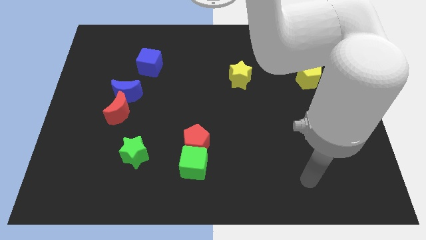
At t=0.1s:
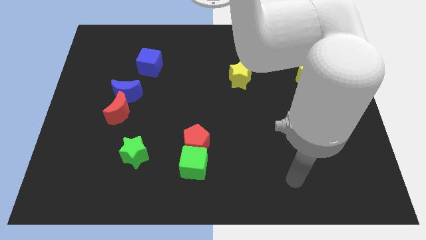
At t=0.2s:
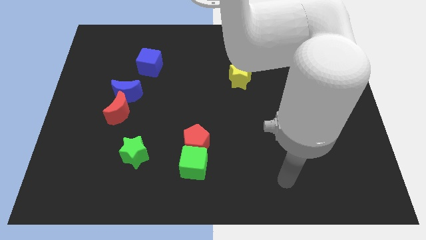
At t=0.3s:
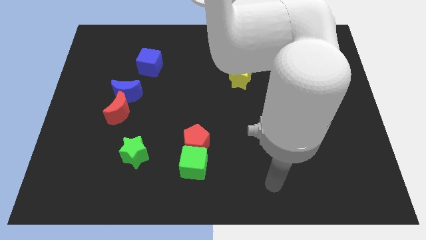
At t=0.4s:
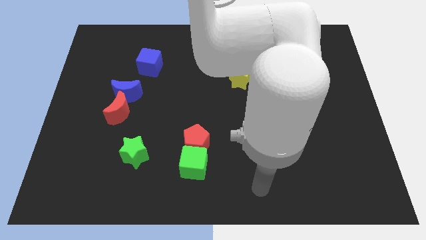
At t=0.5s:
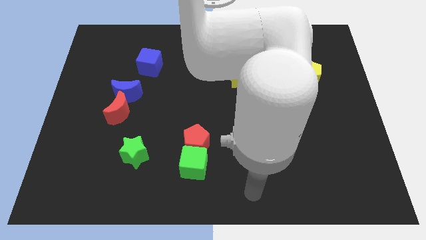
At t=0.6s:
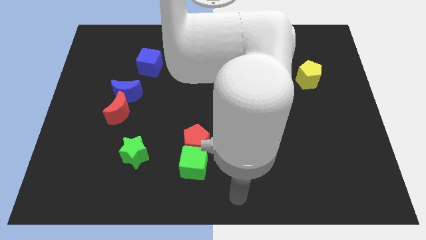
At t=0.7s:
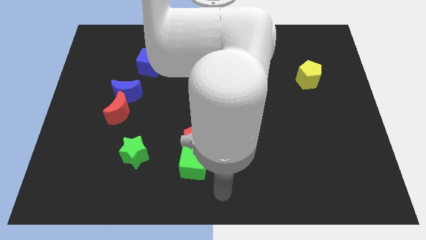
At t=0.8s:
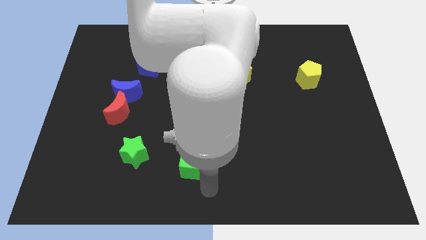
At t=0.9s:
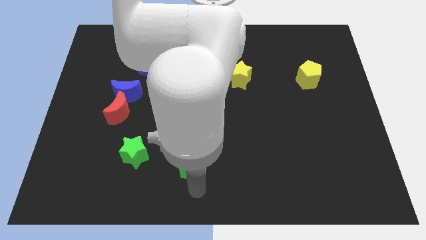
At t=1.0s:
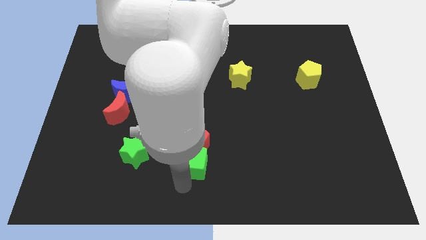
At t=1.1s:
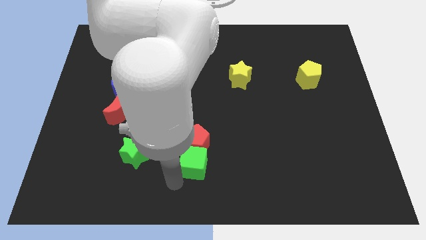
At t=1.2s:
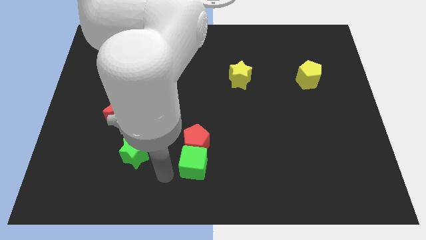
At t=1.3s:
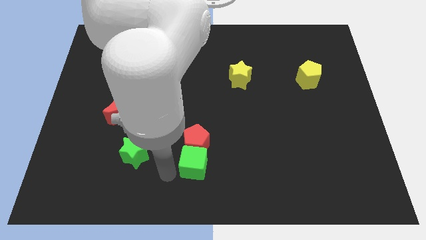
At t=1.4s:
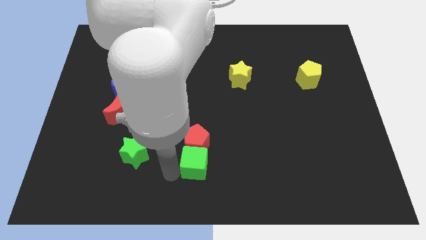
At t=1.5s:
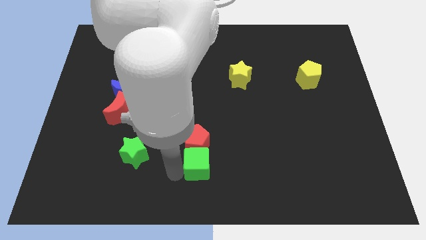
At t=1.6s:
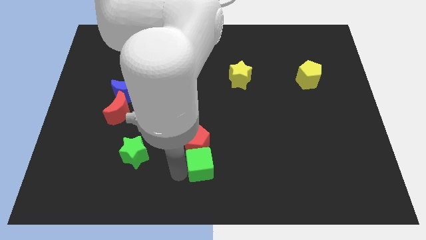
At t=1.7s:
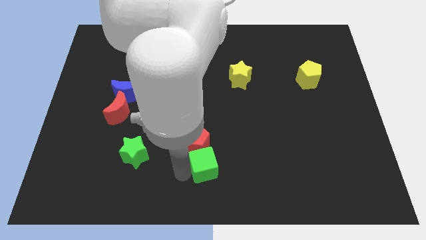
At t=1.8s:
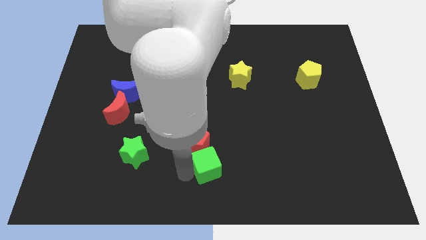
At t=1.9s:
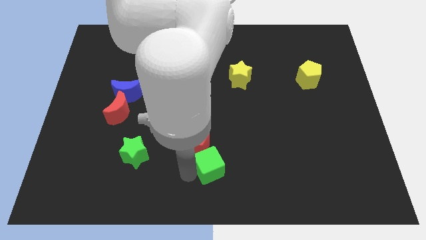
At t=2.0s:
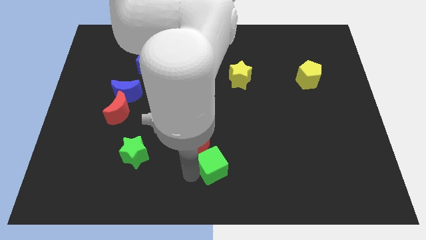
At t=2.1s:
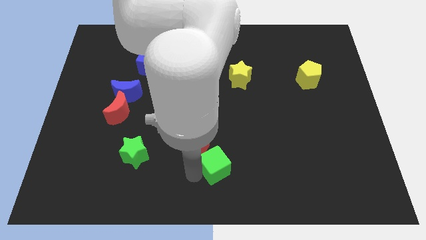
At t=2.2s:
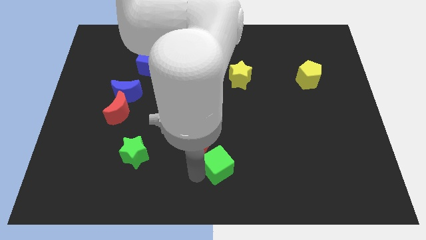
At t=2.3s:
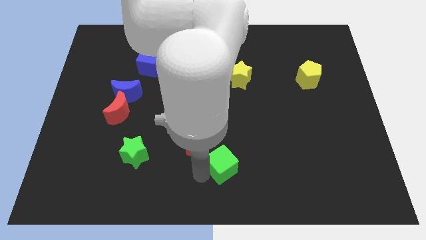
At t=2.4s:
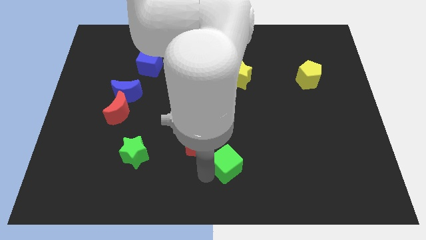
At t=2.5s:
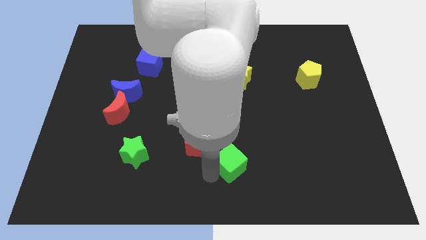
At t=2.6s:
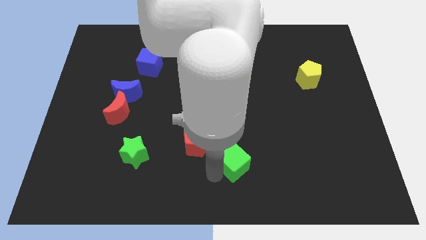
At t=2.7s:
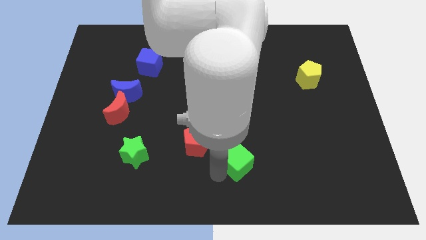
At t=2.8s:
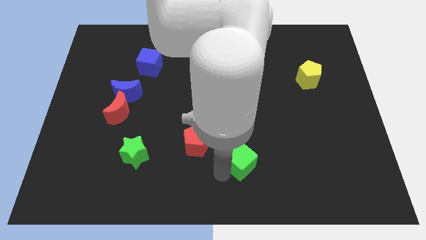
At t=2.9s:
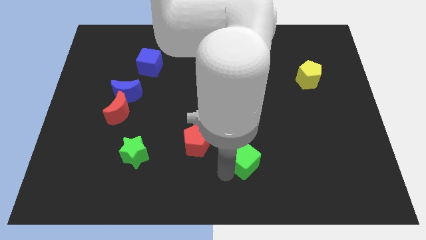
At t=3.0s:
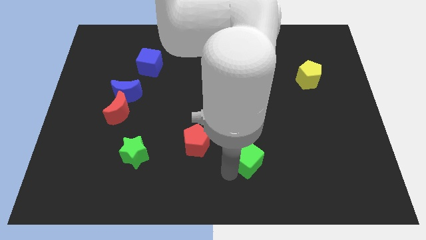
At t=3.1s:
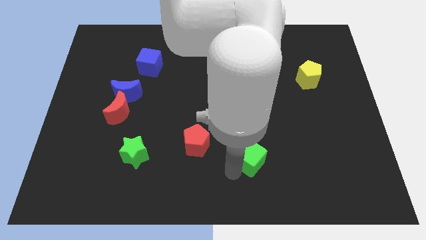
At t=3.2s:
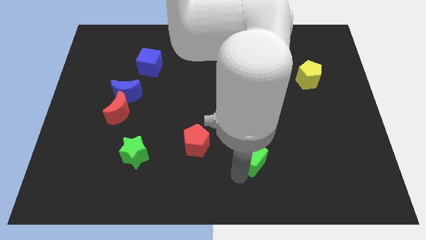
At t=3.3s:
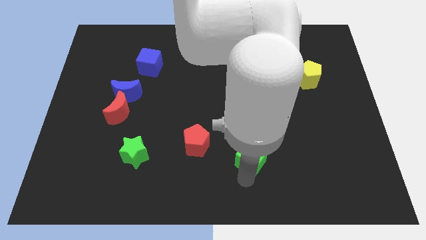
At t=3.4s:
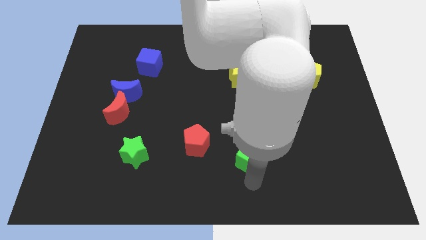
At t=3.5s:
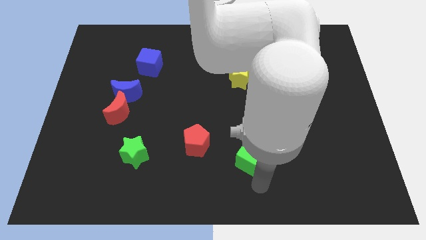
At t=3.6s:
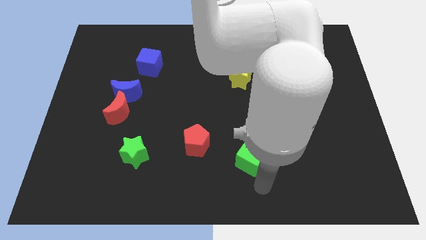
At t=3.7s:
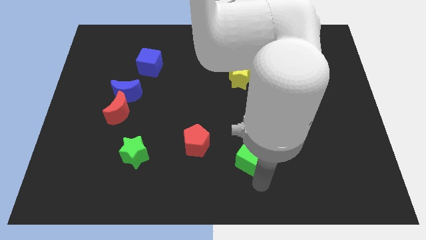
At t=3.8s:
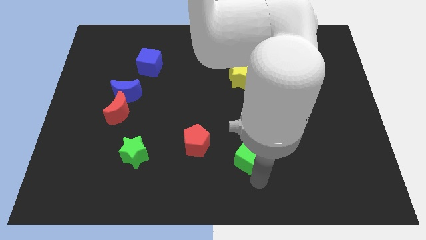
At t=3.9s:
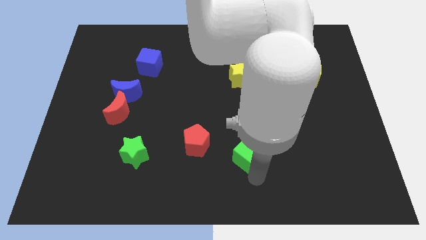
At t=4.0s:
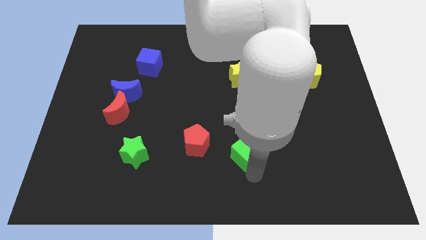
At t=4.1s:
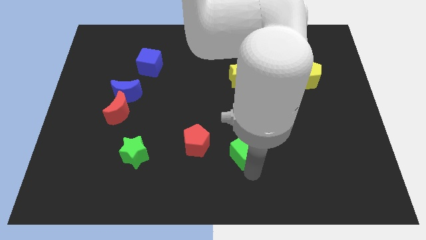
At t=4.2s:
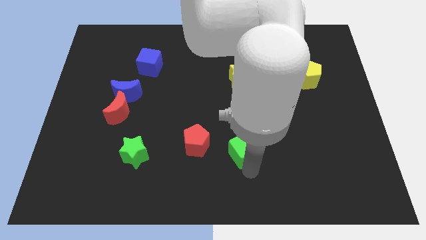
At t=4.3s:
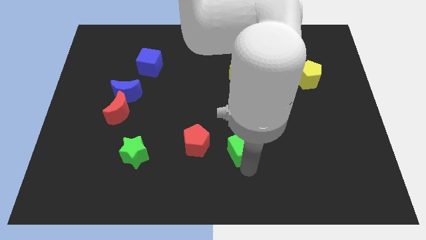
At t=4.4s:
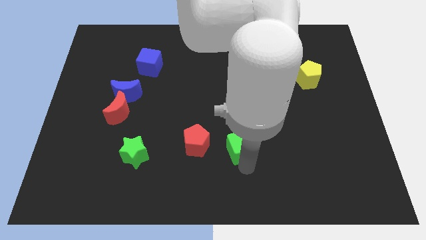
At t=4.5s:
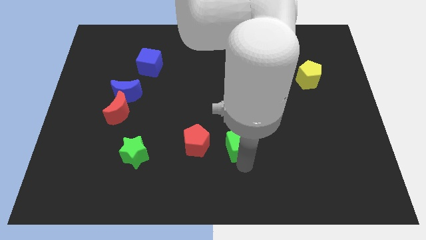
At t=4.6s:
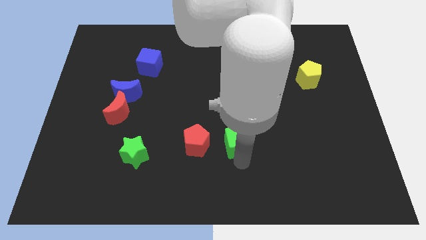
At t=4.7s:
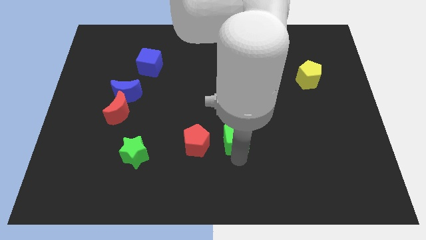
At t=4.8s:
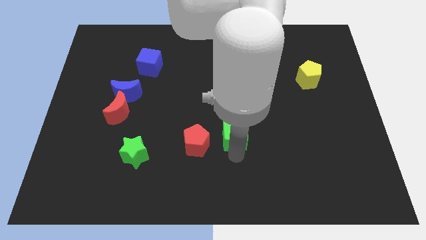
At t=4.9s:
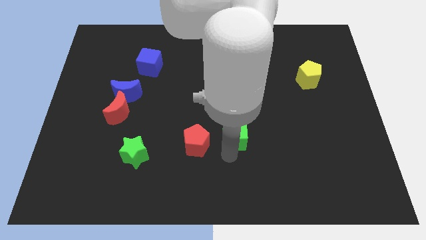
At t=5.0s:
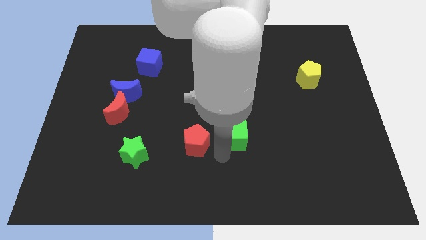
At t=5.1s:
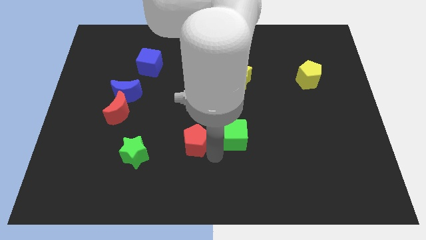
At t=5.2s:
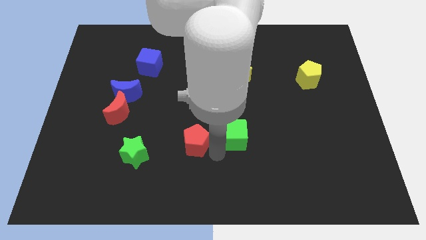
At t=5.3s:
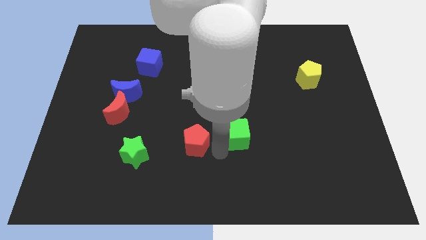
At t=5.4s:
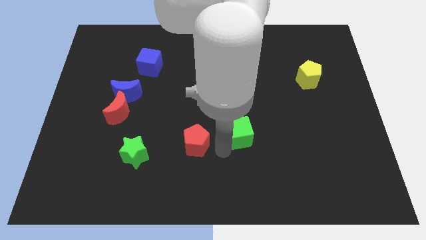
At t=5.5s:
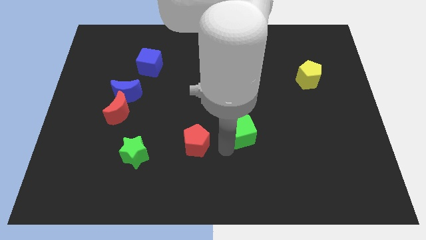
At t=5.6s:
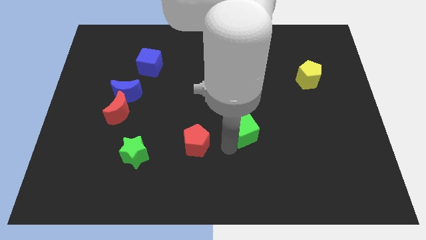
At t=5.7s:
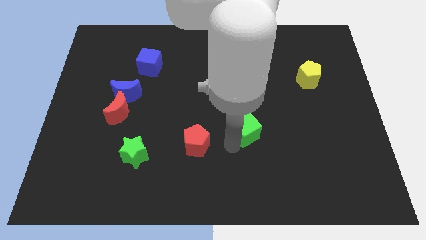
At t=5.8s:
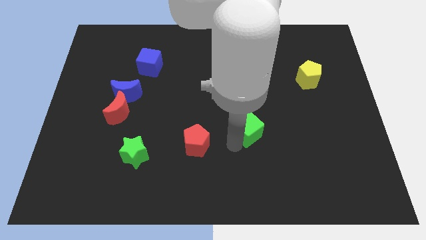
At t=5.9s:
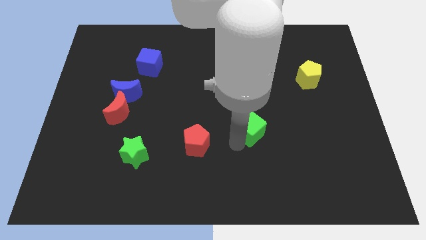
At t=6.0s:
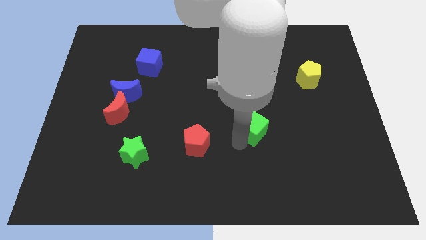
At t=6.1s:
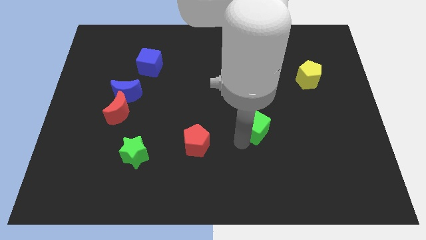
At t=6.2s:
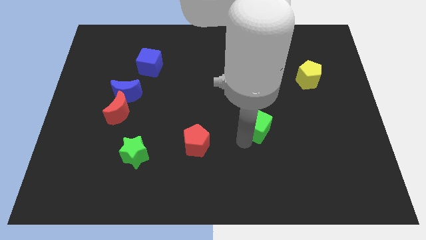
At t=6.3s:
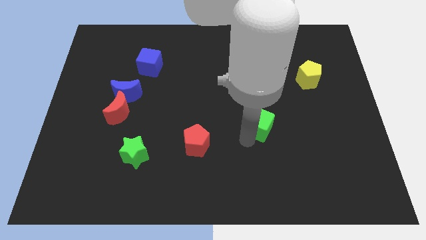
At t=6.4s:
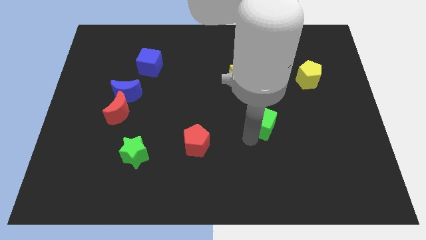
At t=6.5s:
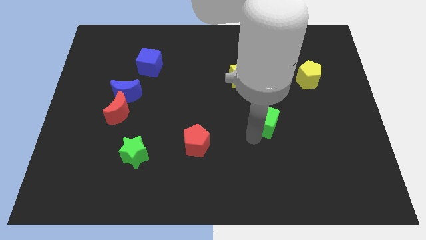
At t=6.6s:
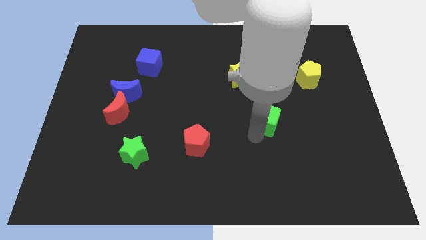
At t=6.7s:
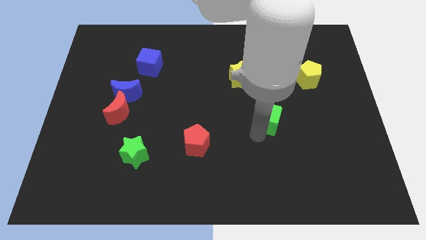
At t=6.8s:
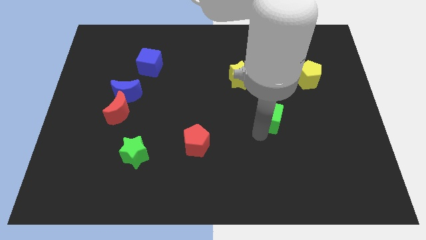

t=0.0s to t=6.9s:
push the green cube up and to the right

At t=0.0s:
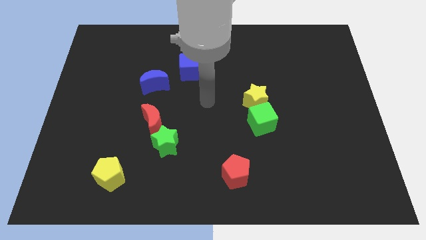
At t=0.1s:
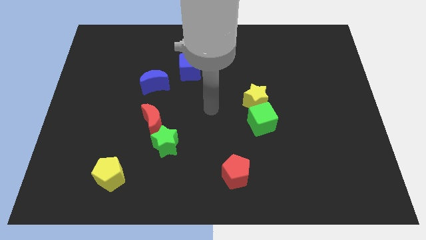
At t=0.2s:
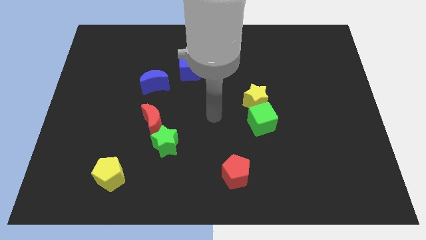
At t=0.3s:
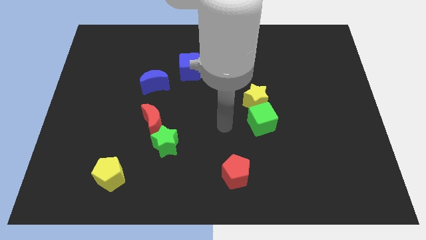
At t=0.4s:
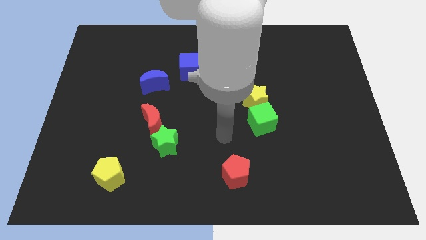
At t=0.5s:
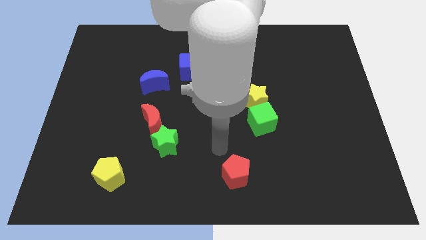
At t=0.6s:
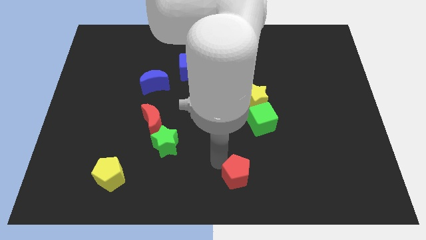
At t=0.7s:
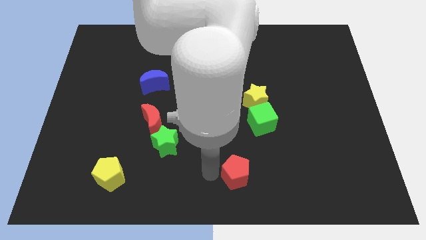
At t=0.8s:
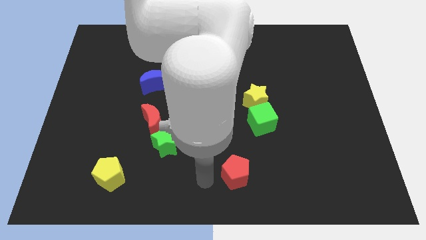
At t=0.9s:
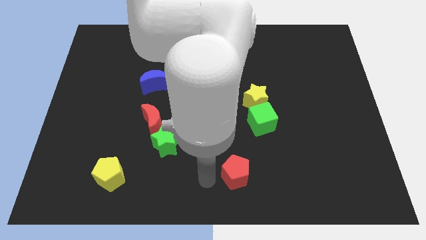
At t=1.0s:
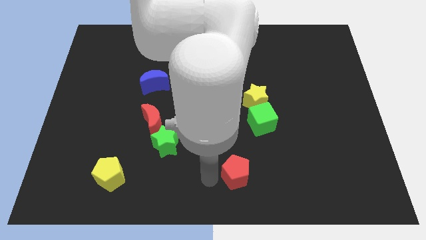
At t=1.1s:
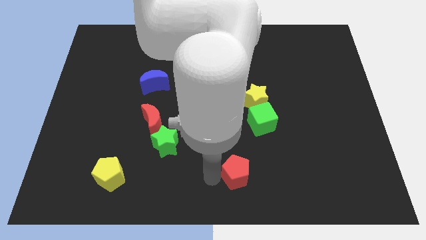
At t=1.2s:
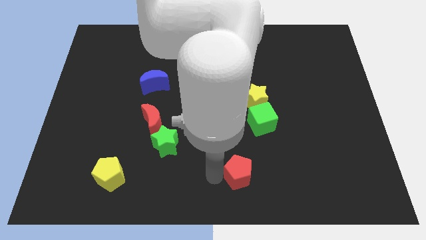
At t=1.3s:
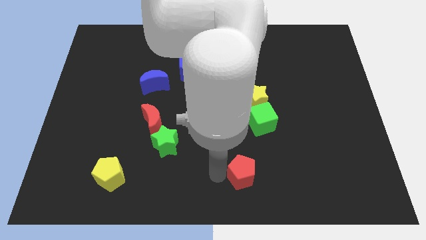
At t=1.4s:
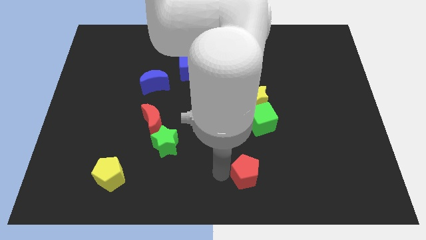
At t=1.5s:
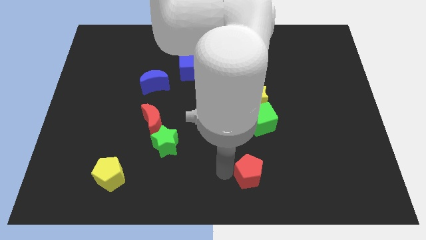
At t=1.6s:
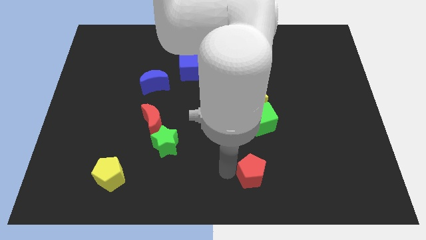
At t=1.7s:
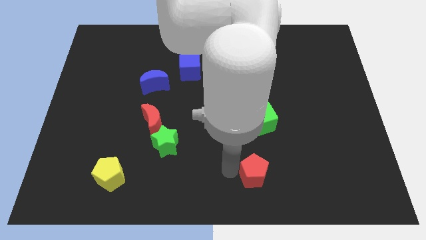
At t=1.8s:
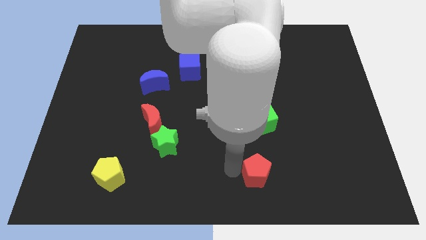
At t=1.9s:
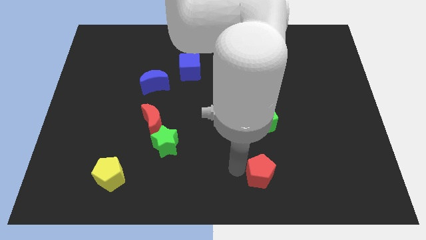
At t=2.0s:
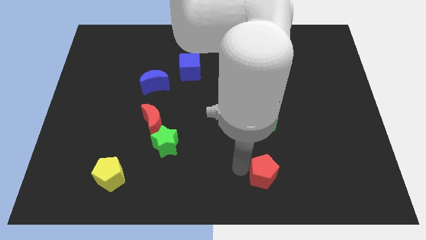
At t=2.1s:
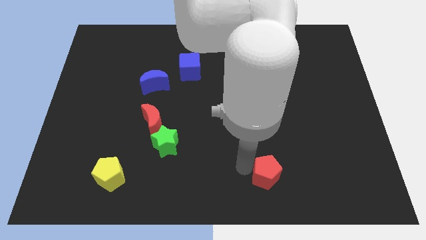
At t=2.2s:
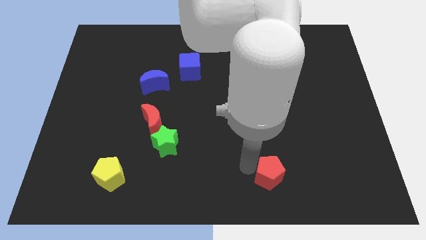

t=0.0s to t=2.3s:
slightly move the red pentagon to the right
